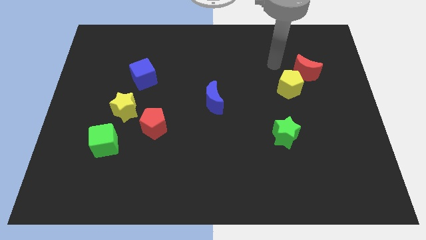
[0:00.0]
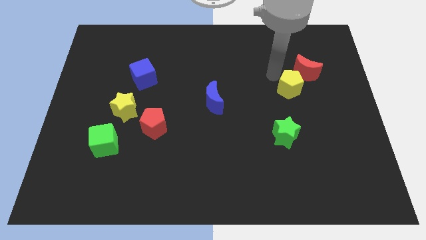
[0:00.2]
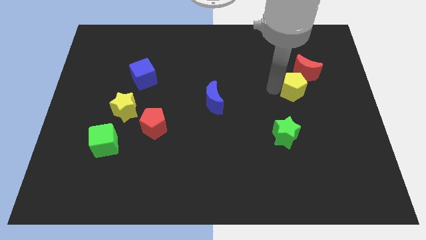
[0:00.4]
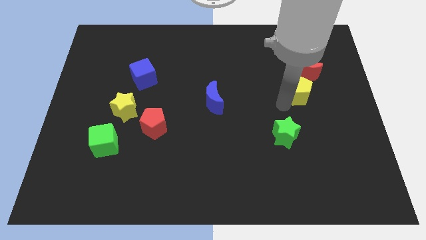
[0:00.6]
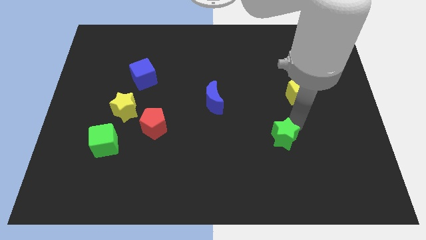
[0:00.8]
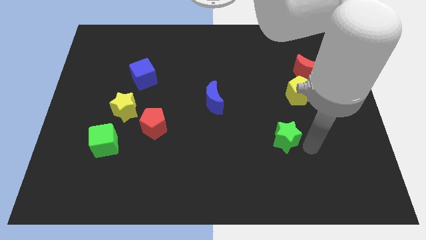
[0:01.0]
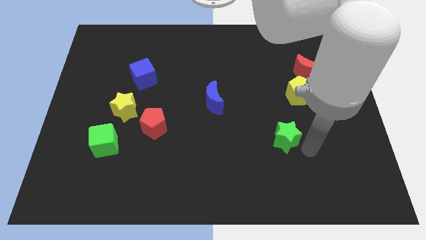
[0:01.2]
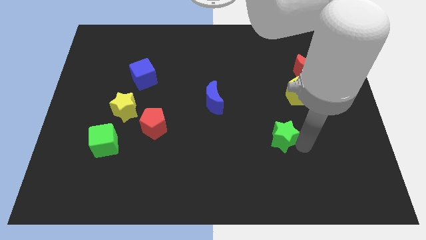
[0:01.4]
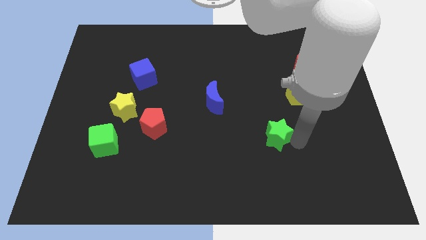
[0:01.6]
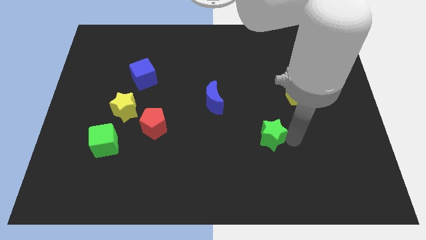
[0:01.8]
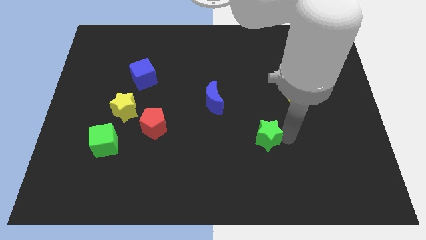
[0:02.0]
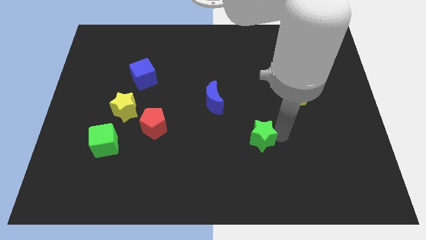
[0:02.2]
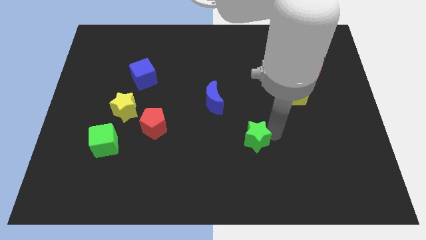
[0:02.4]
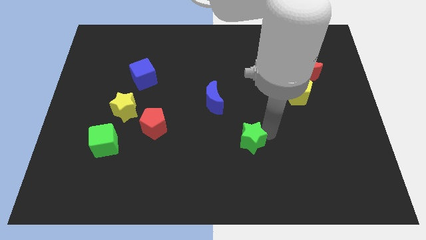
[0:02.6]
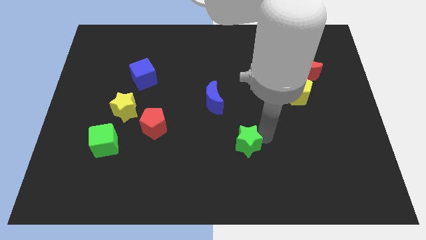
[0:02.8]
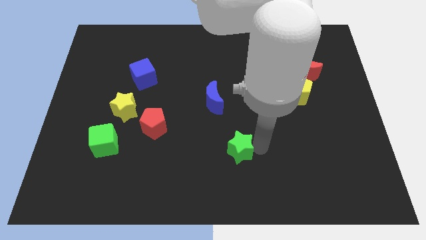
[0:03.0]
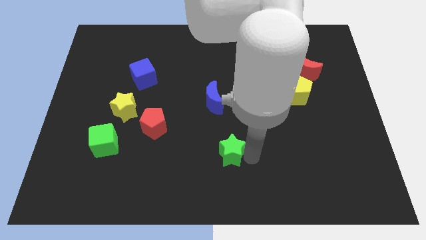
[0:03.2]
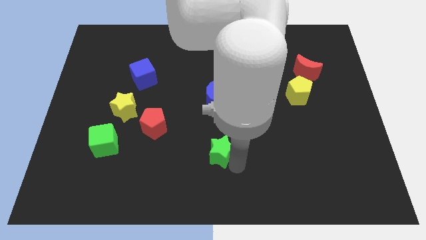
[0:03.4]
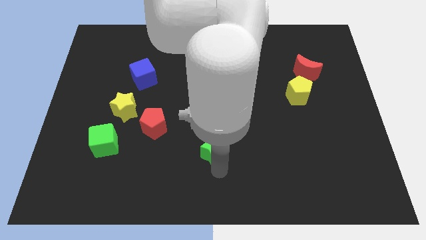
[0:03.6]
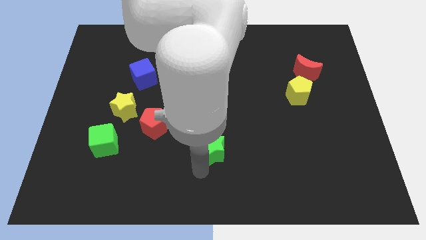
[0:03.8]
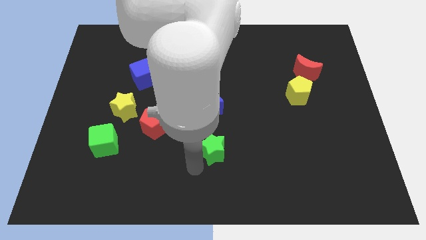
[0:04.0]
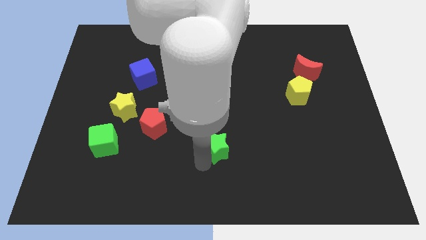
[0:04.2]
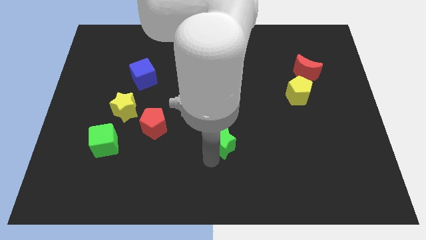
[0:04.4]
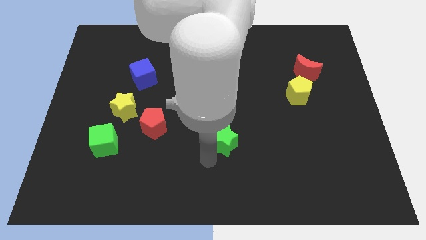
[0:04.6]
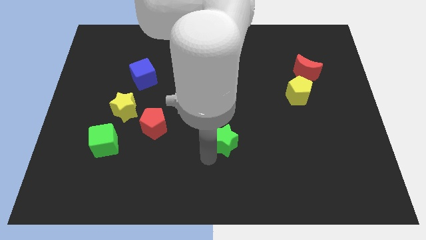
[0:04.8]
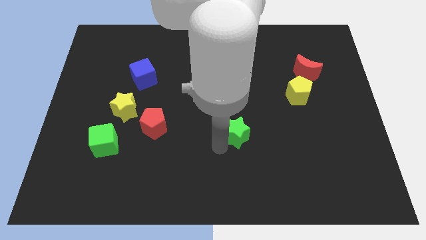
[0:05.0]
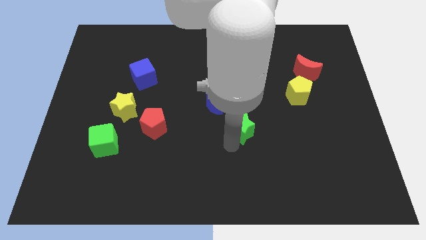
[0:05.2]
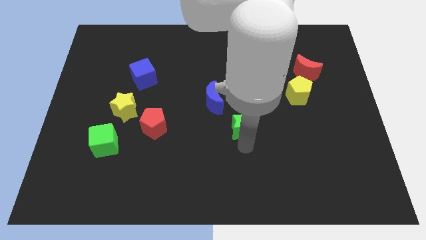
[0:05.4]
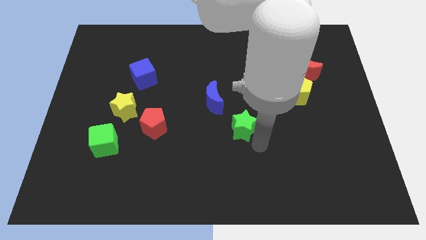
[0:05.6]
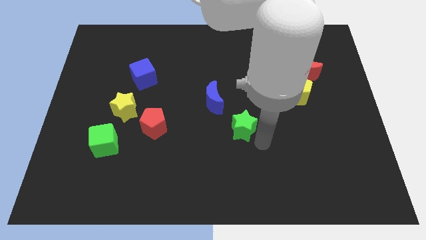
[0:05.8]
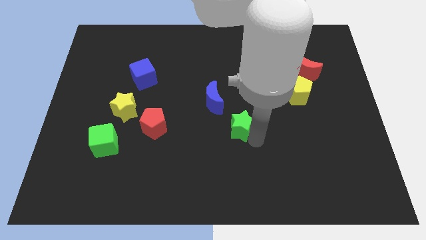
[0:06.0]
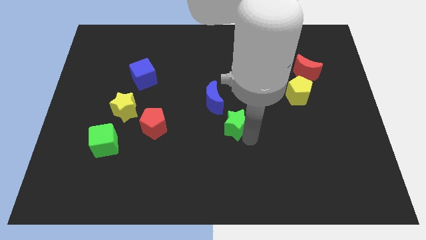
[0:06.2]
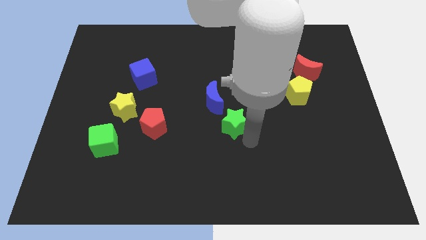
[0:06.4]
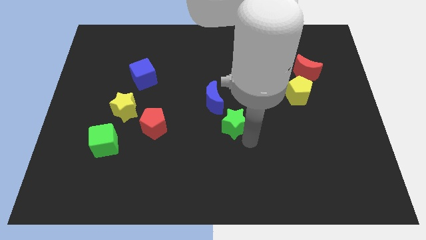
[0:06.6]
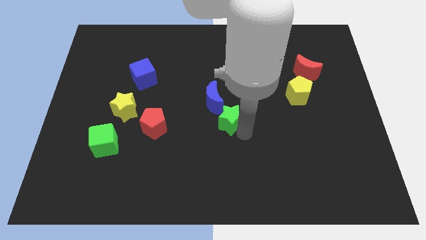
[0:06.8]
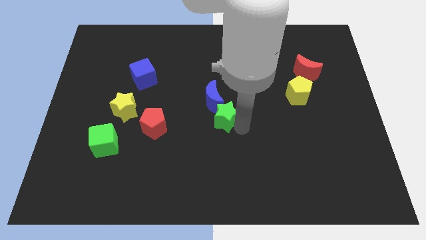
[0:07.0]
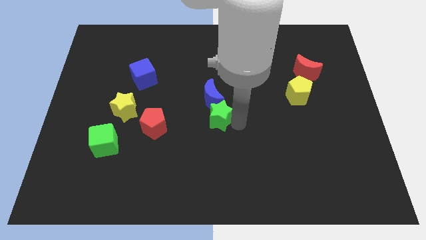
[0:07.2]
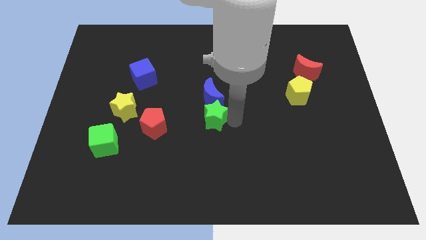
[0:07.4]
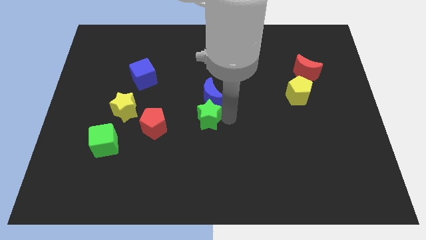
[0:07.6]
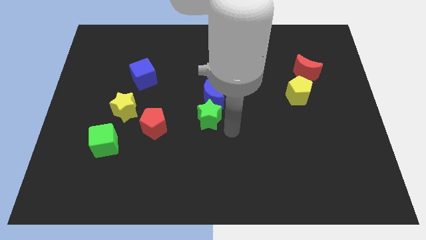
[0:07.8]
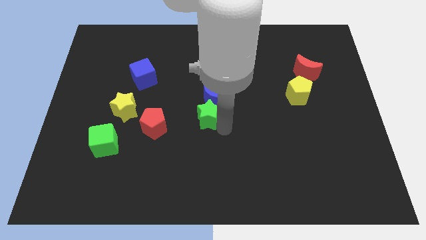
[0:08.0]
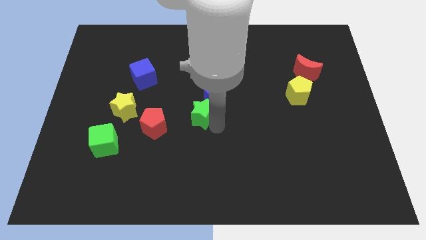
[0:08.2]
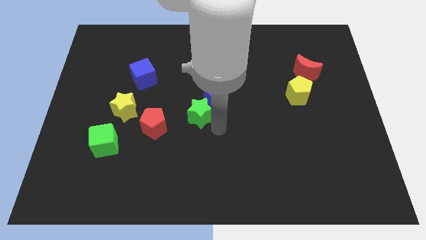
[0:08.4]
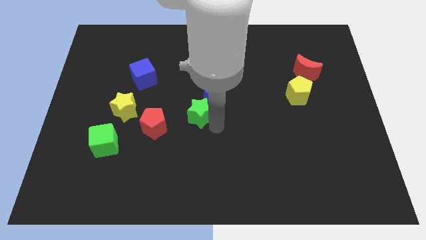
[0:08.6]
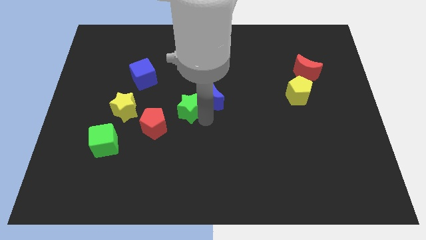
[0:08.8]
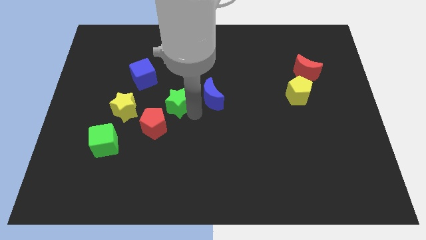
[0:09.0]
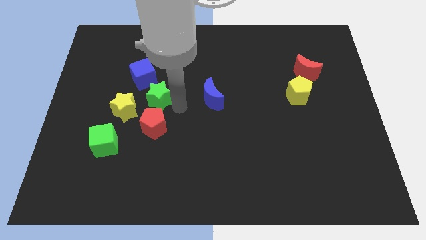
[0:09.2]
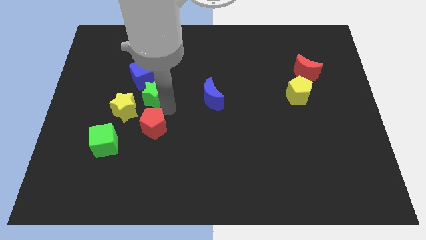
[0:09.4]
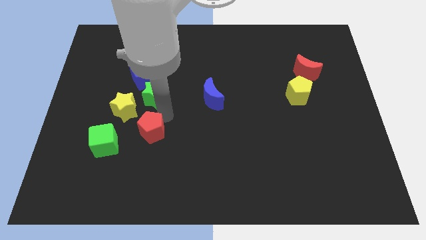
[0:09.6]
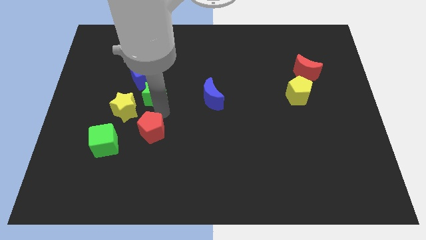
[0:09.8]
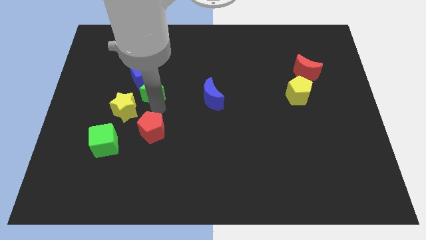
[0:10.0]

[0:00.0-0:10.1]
slide the green star close to the blue cube

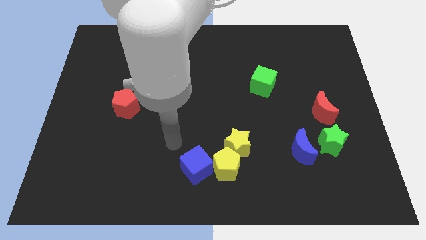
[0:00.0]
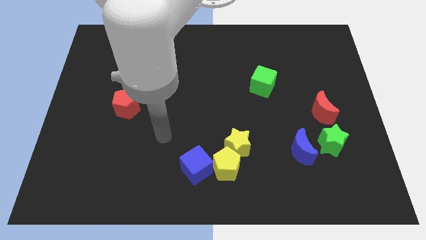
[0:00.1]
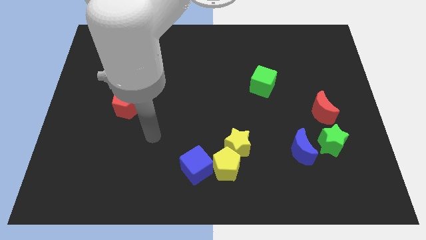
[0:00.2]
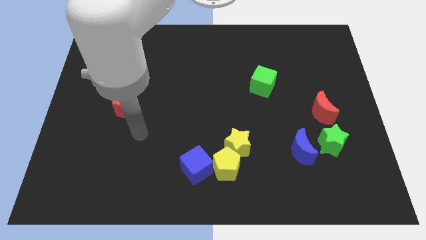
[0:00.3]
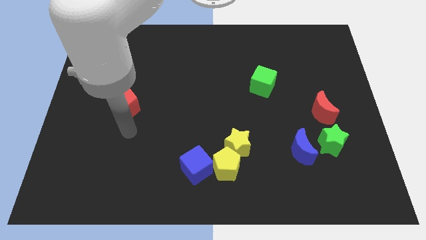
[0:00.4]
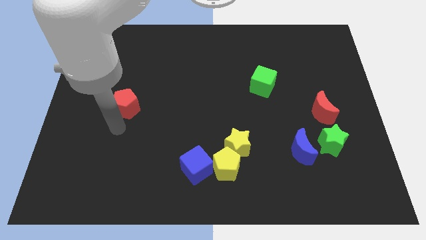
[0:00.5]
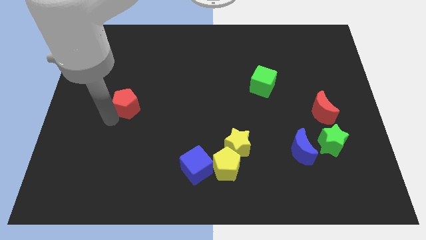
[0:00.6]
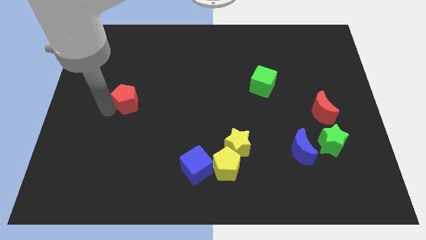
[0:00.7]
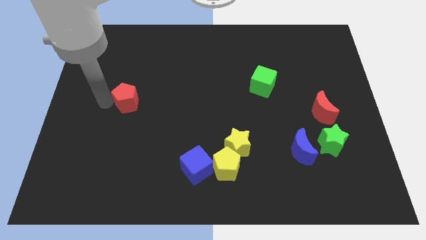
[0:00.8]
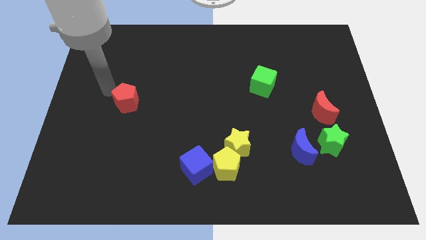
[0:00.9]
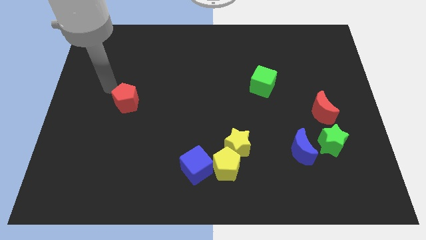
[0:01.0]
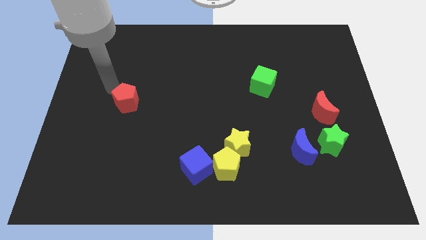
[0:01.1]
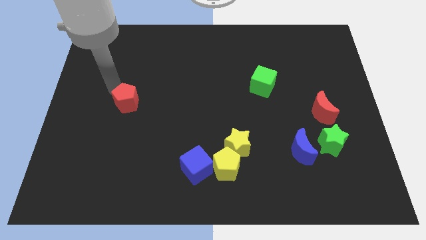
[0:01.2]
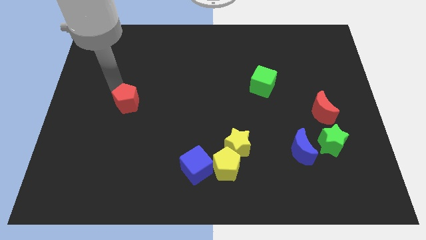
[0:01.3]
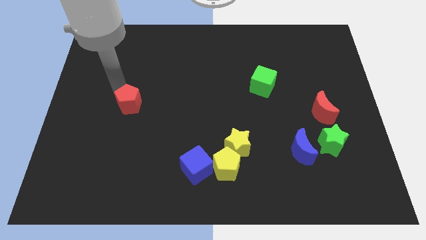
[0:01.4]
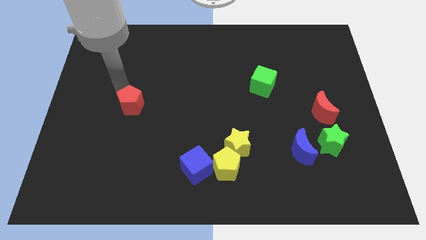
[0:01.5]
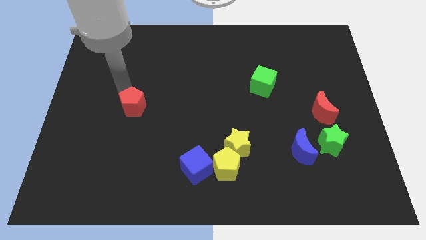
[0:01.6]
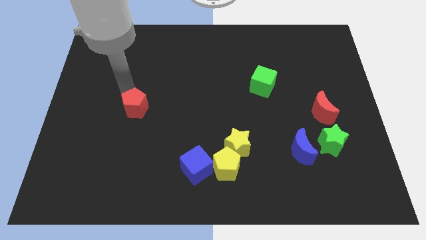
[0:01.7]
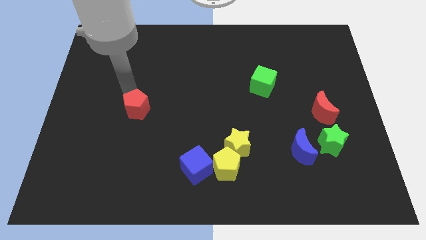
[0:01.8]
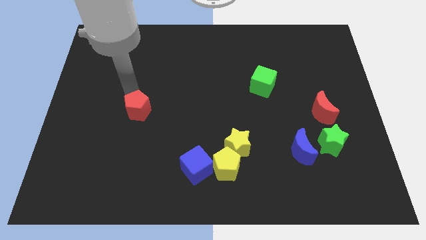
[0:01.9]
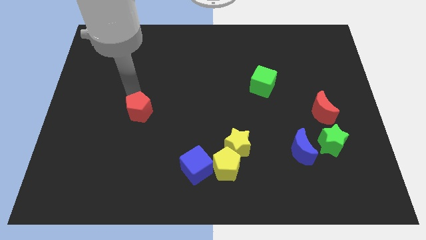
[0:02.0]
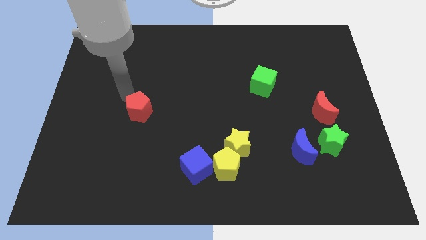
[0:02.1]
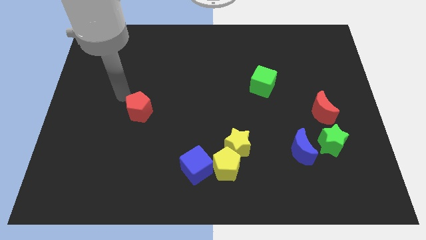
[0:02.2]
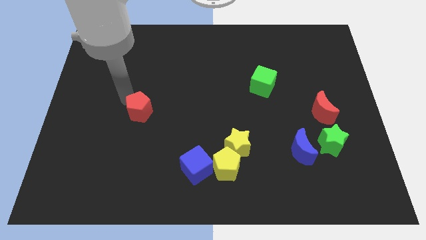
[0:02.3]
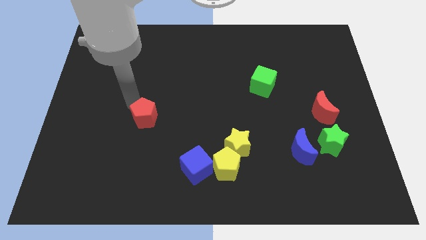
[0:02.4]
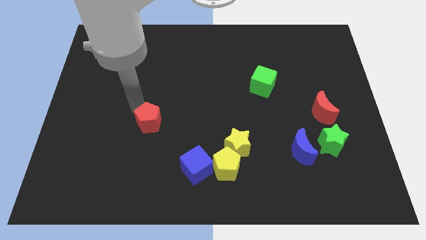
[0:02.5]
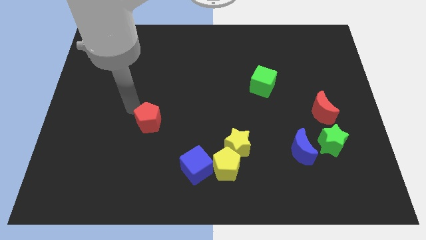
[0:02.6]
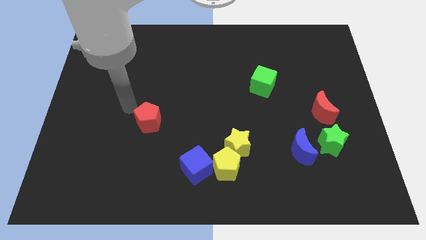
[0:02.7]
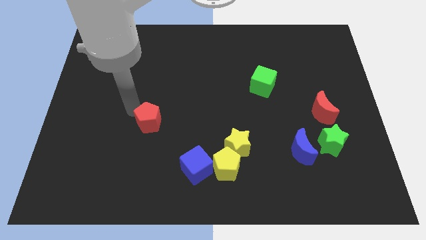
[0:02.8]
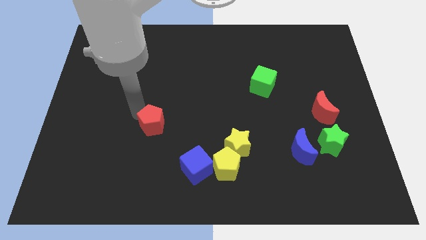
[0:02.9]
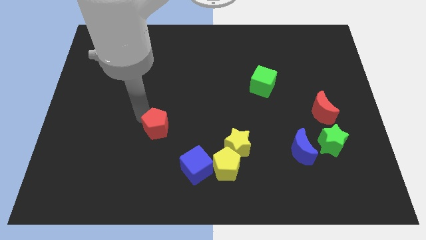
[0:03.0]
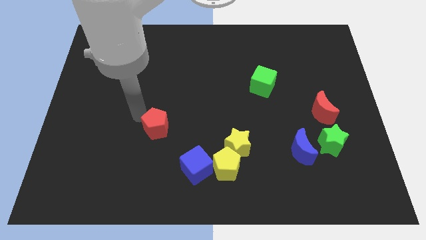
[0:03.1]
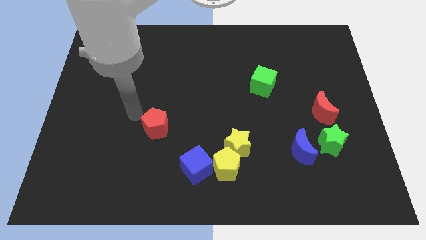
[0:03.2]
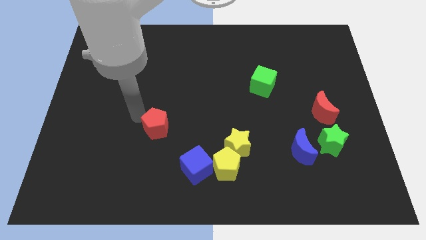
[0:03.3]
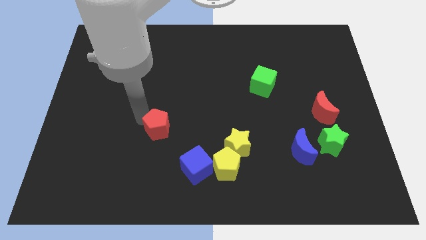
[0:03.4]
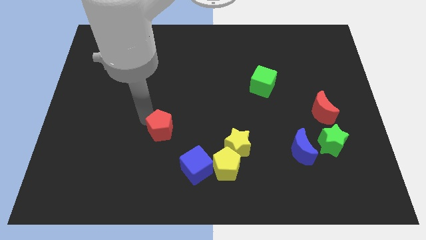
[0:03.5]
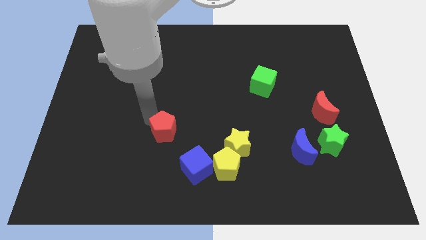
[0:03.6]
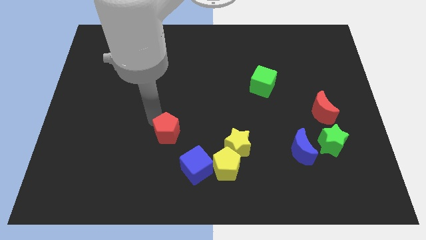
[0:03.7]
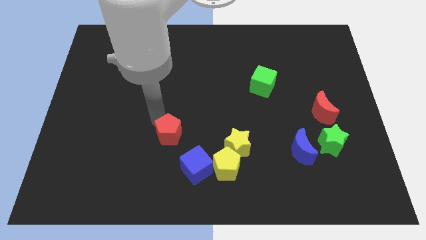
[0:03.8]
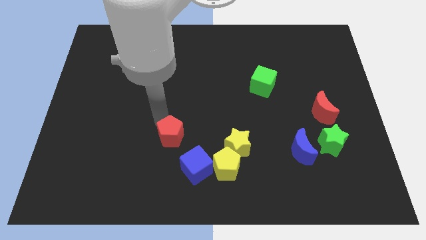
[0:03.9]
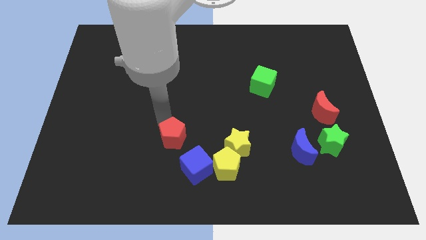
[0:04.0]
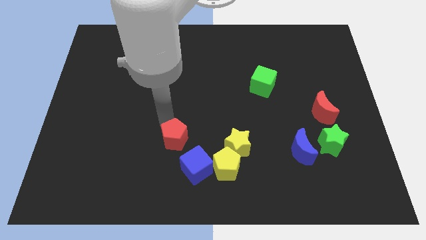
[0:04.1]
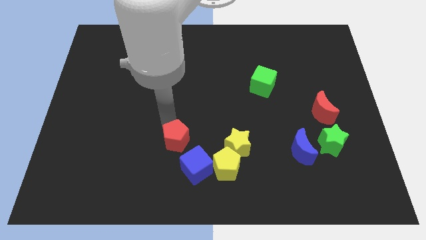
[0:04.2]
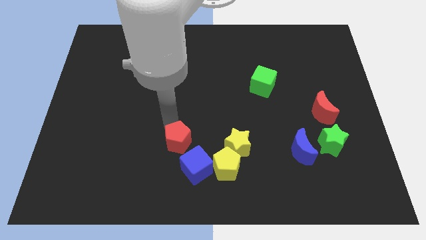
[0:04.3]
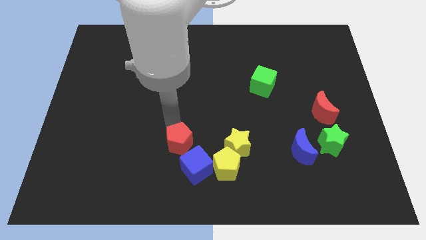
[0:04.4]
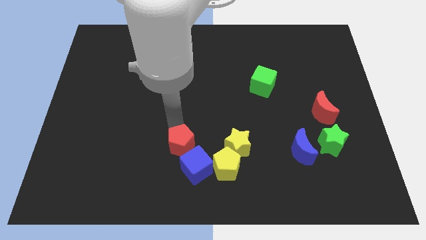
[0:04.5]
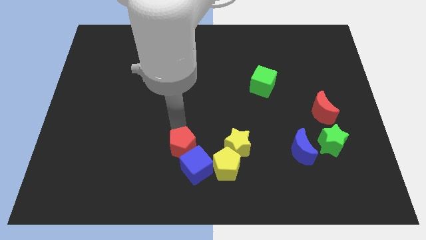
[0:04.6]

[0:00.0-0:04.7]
move the red pentagon next to the blue cube
